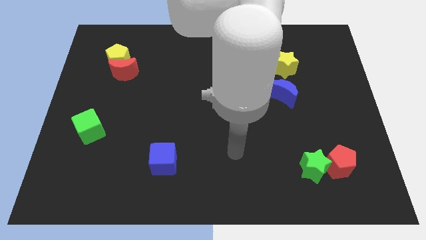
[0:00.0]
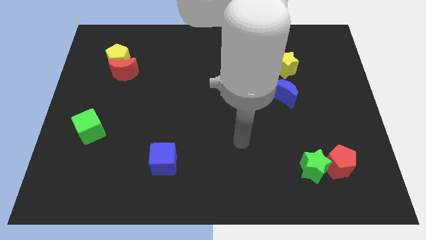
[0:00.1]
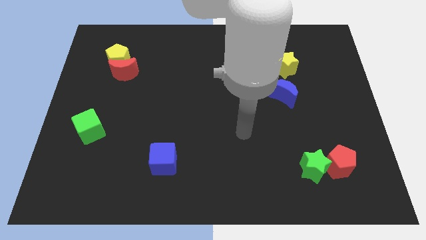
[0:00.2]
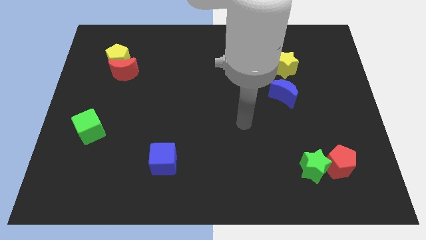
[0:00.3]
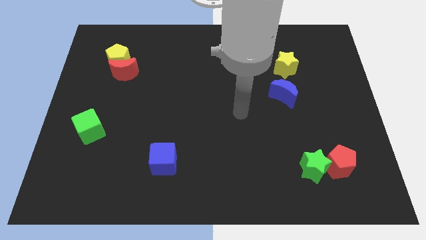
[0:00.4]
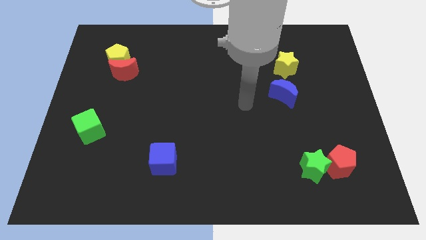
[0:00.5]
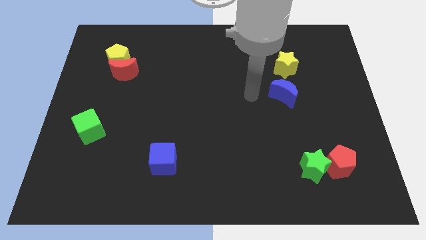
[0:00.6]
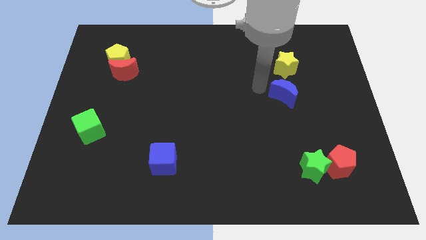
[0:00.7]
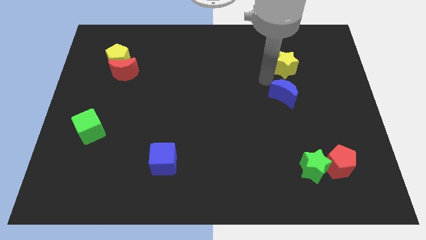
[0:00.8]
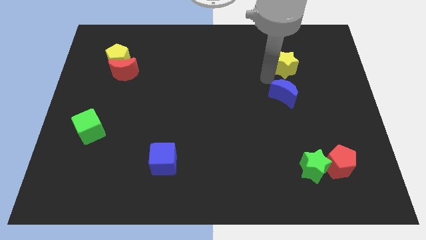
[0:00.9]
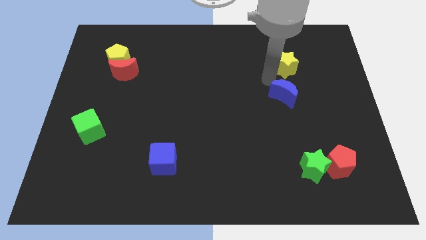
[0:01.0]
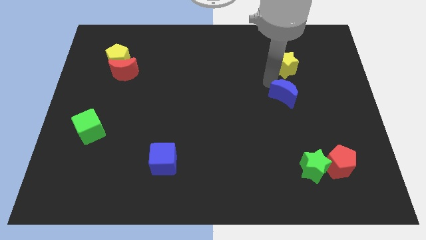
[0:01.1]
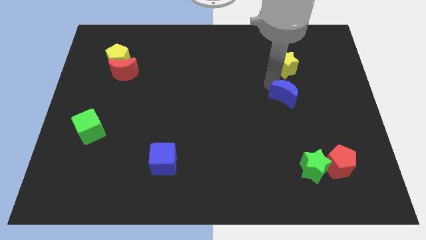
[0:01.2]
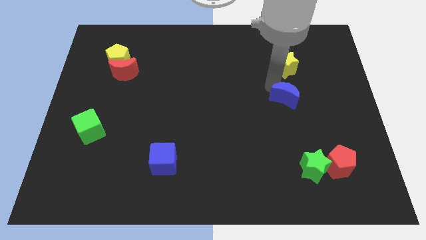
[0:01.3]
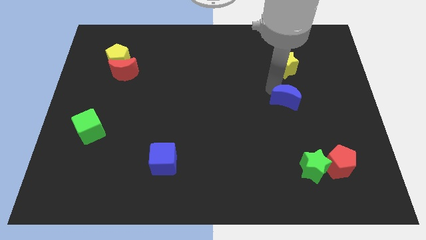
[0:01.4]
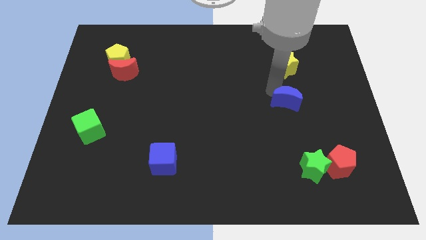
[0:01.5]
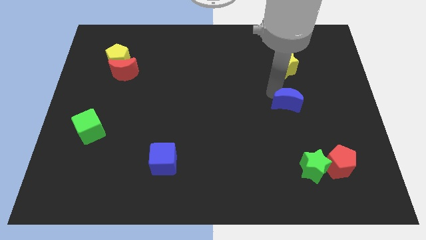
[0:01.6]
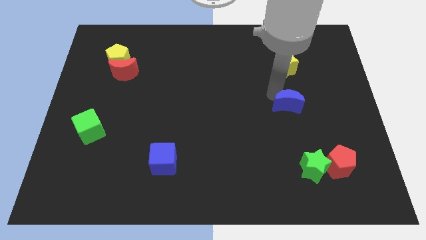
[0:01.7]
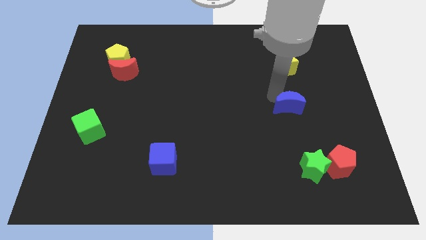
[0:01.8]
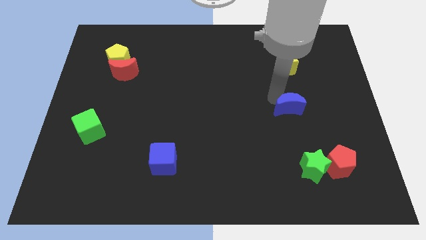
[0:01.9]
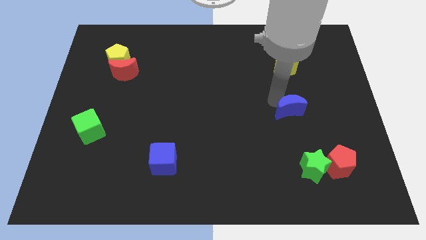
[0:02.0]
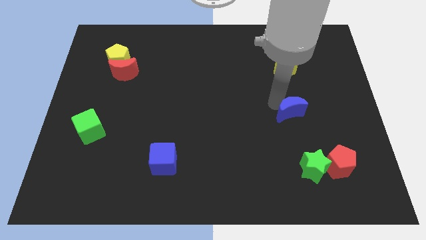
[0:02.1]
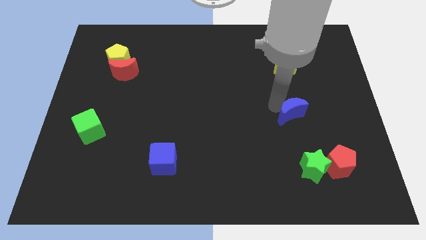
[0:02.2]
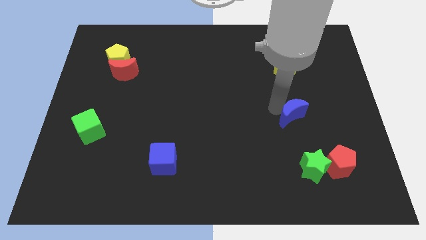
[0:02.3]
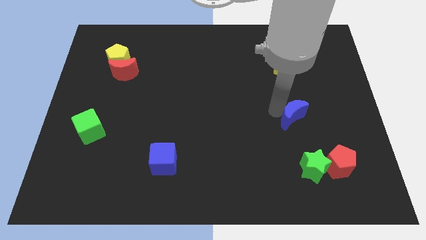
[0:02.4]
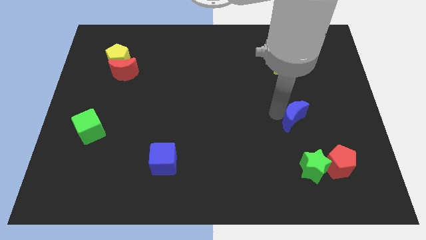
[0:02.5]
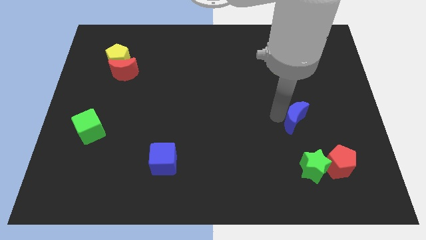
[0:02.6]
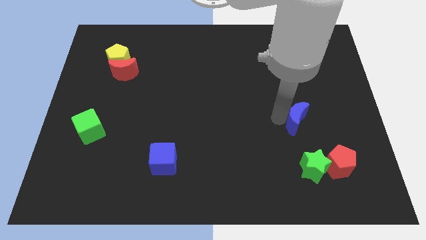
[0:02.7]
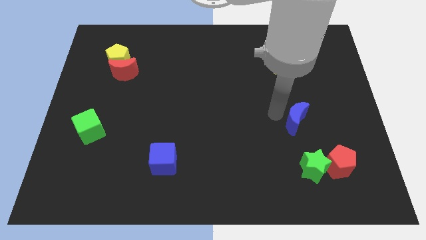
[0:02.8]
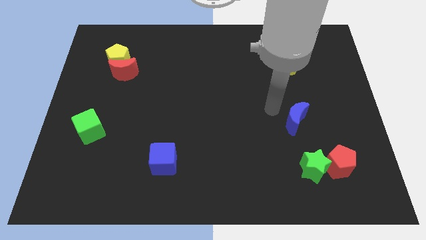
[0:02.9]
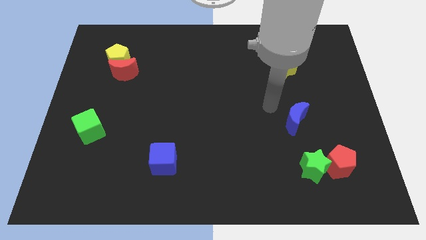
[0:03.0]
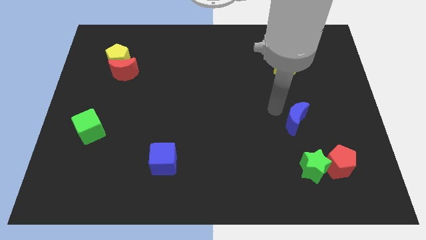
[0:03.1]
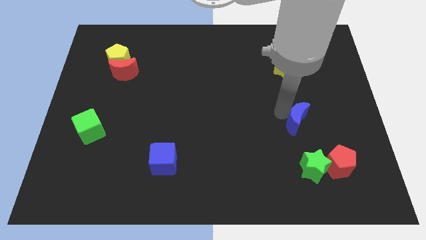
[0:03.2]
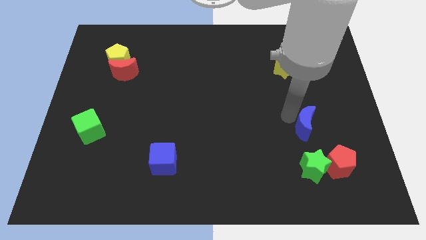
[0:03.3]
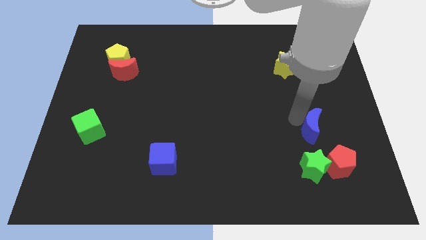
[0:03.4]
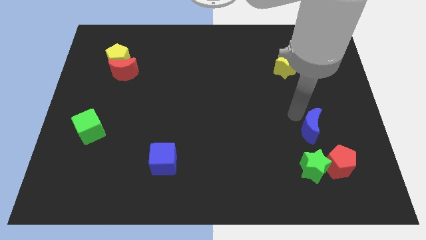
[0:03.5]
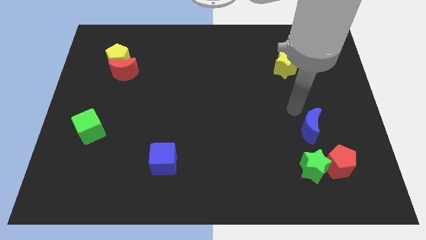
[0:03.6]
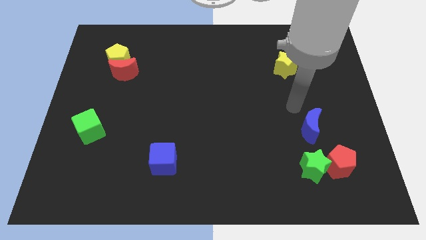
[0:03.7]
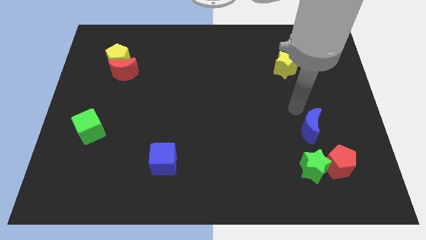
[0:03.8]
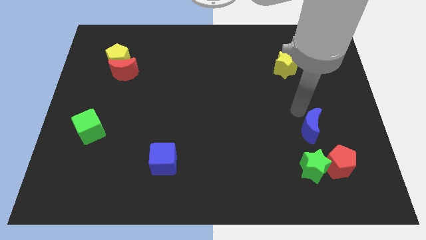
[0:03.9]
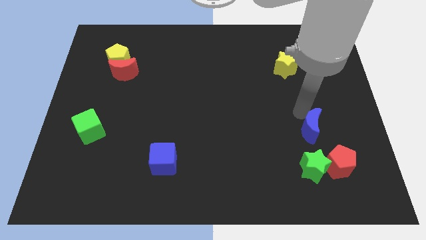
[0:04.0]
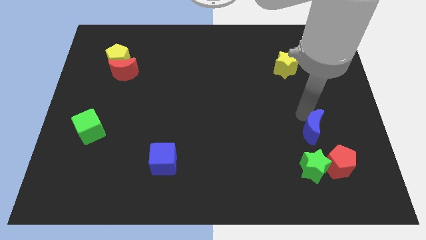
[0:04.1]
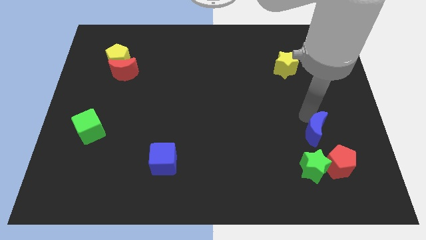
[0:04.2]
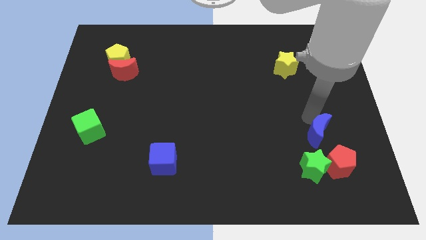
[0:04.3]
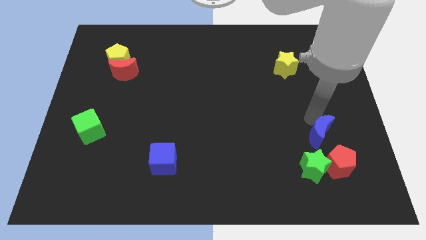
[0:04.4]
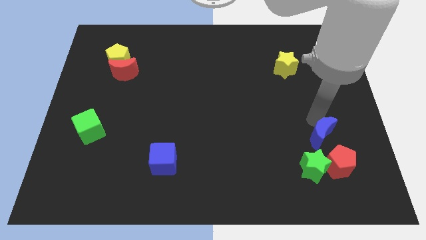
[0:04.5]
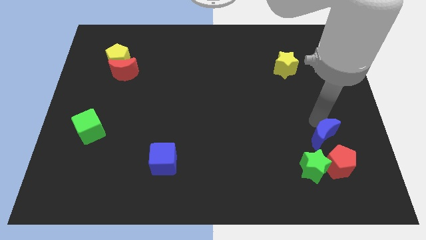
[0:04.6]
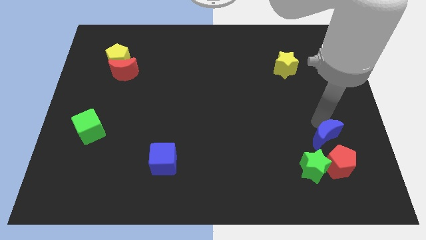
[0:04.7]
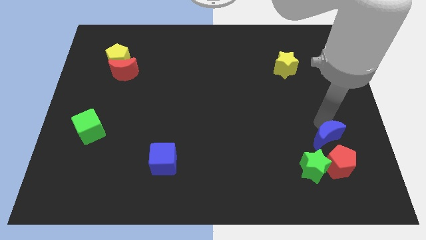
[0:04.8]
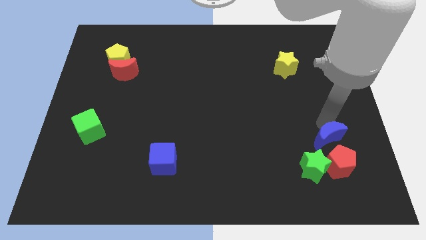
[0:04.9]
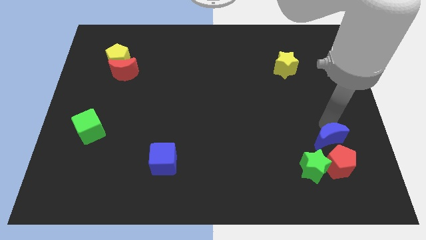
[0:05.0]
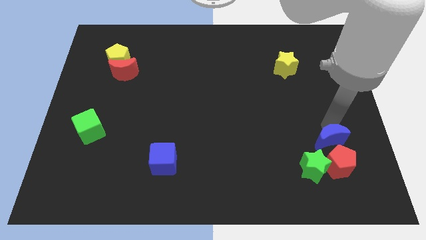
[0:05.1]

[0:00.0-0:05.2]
move the blue moon towards the red pentagon

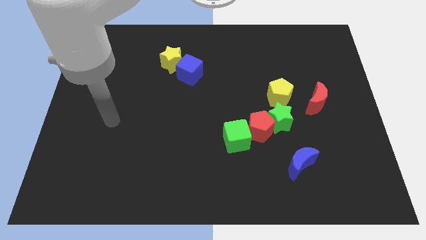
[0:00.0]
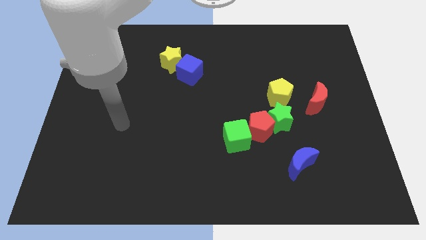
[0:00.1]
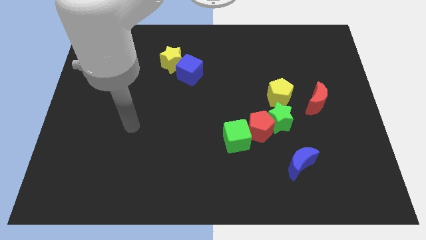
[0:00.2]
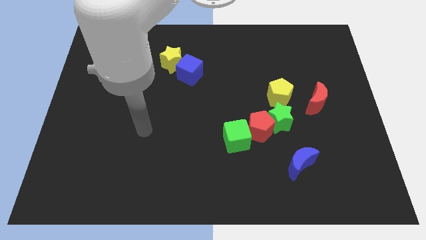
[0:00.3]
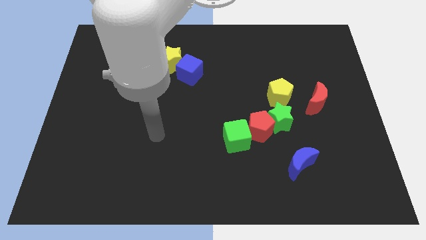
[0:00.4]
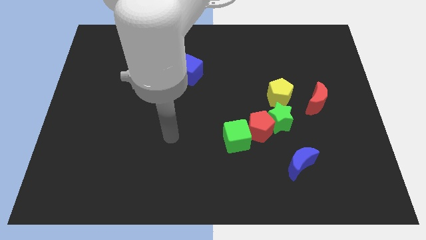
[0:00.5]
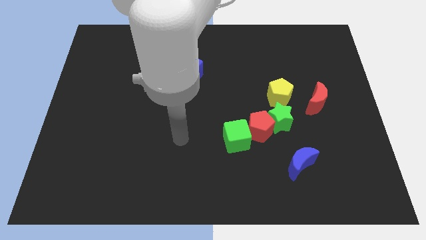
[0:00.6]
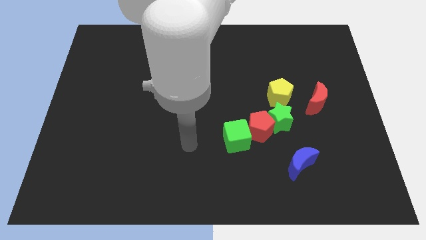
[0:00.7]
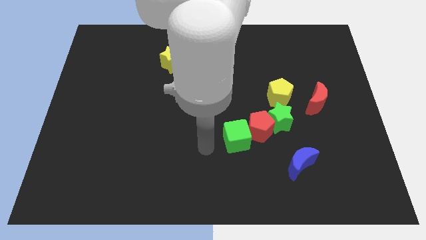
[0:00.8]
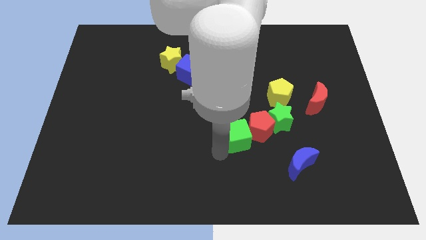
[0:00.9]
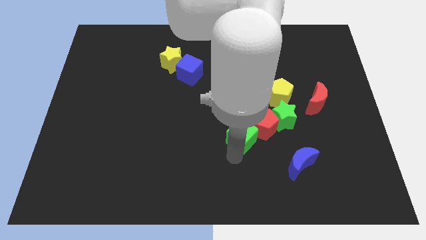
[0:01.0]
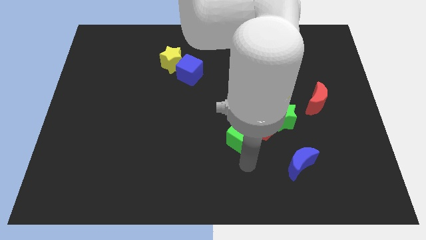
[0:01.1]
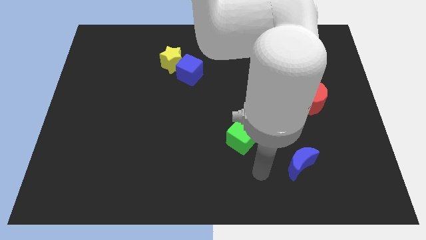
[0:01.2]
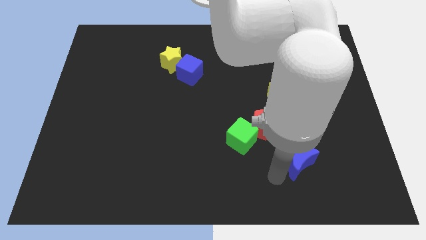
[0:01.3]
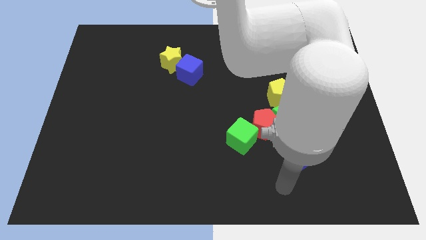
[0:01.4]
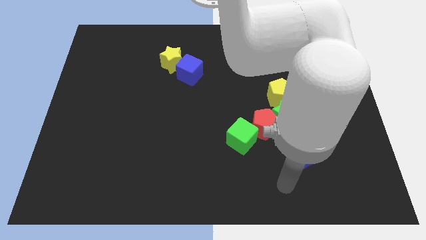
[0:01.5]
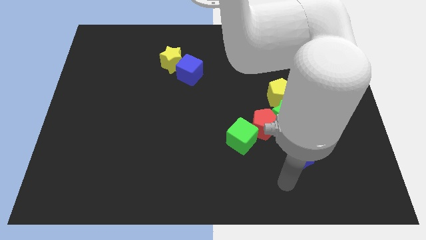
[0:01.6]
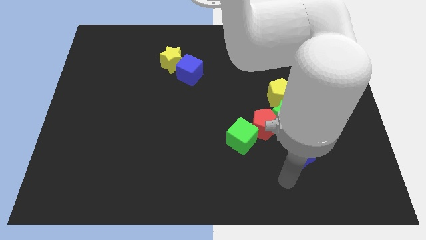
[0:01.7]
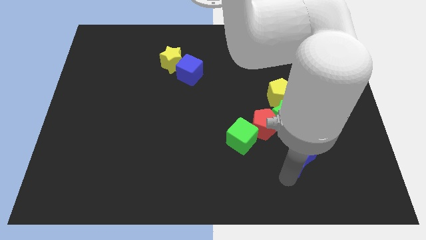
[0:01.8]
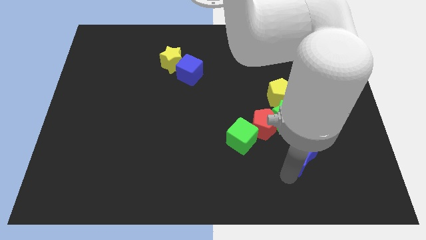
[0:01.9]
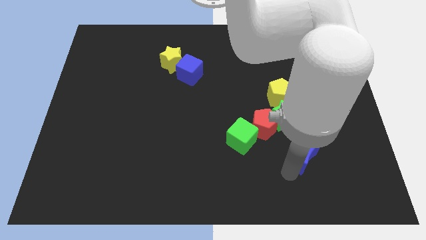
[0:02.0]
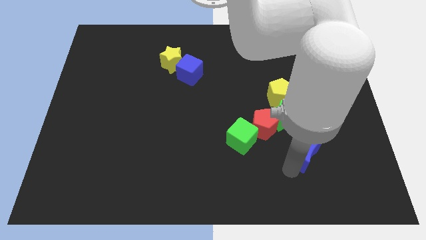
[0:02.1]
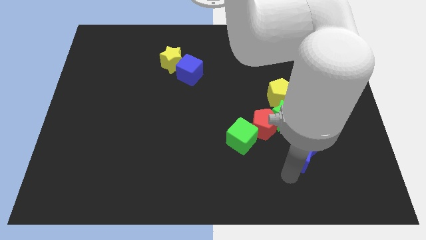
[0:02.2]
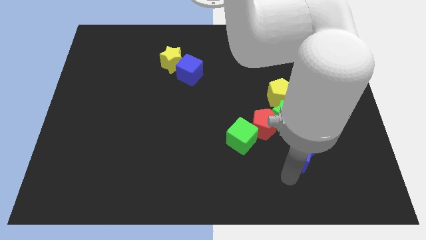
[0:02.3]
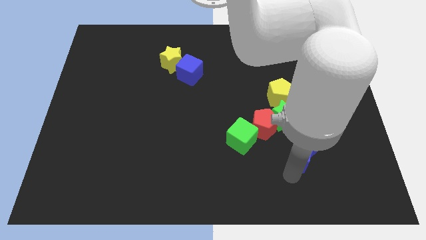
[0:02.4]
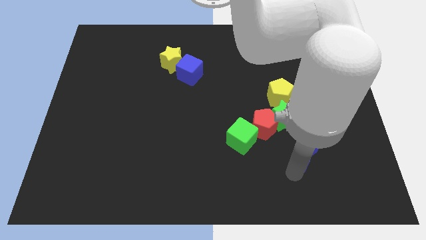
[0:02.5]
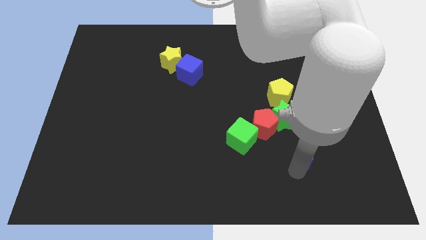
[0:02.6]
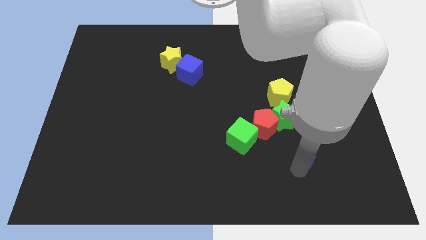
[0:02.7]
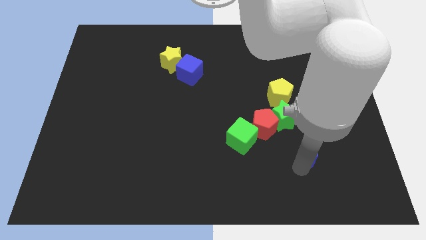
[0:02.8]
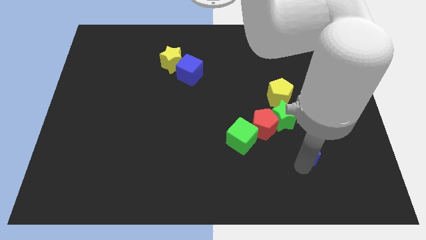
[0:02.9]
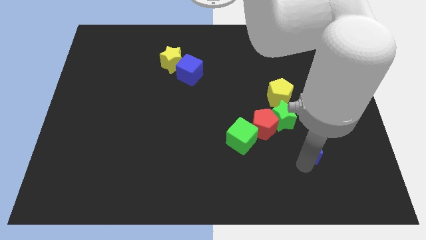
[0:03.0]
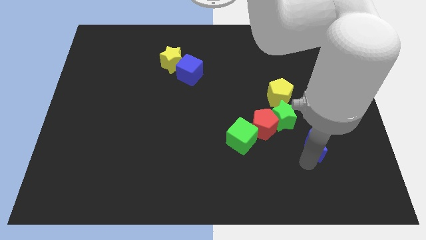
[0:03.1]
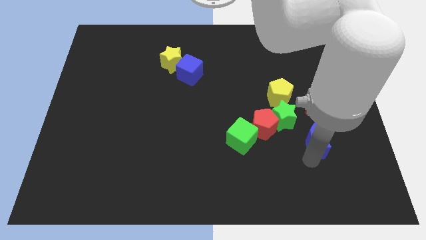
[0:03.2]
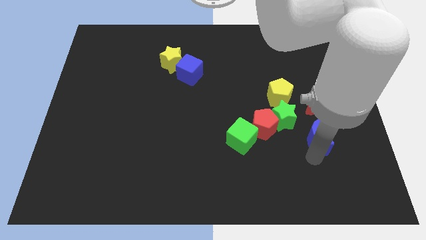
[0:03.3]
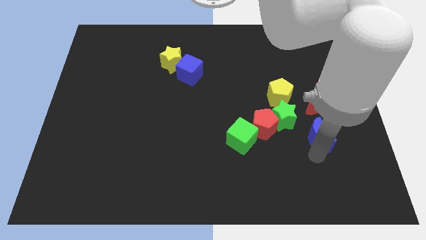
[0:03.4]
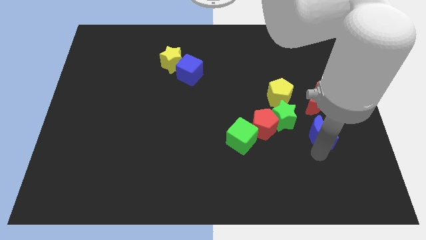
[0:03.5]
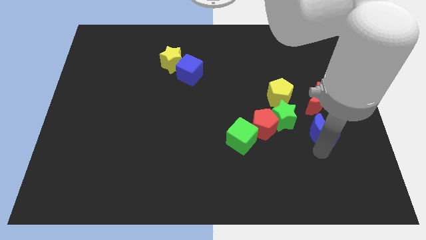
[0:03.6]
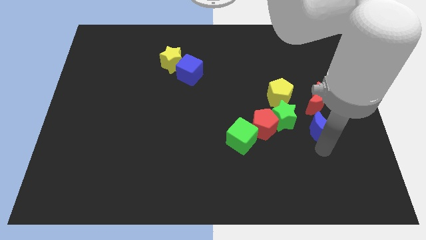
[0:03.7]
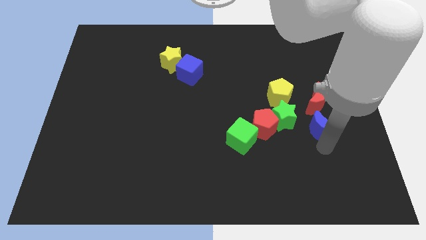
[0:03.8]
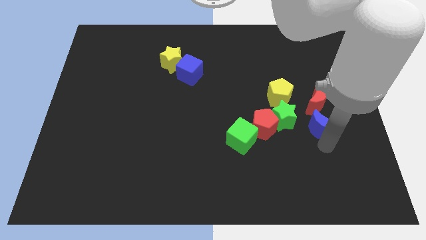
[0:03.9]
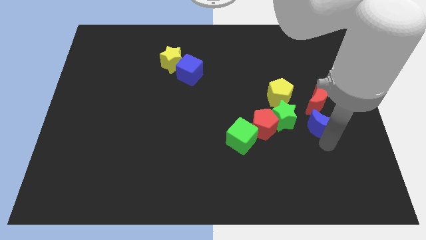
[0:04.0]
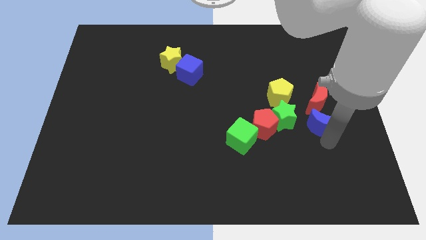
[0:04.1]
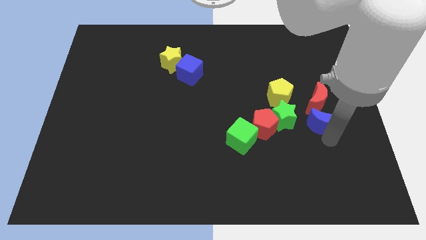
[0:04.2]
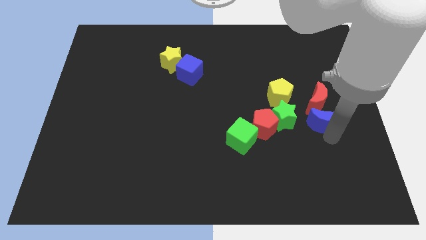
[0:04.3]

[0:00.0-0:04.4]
push the blue moon towards the red moon
